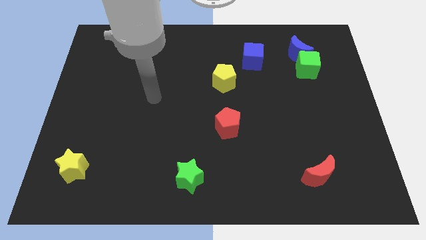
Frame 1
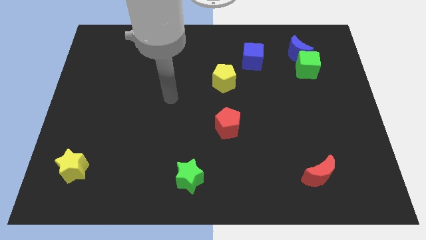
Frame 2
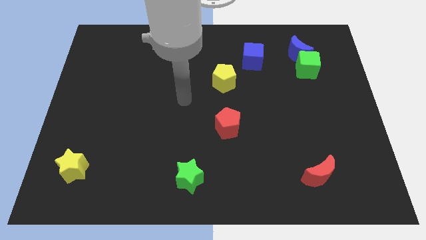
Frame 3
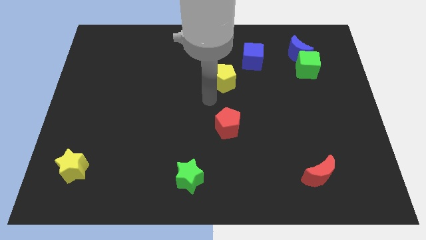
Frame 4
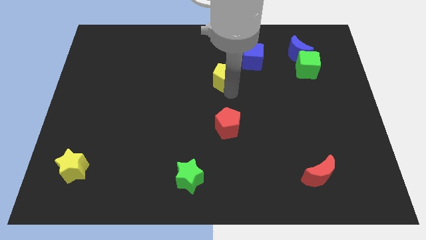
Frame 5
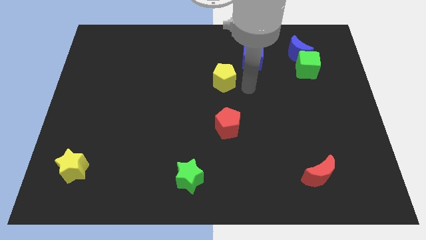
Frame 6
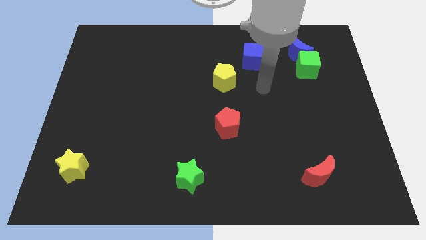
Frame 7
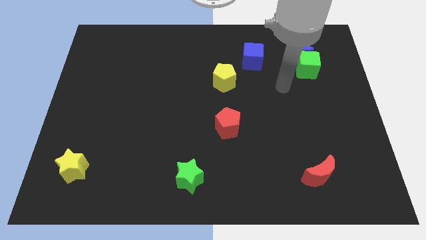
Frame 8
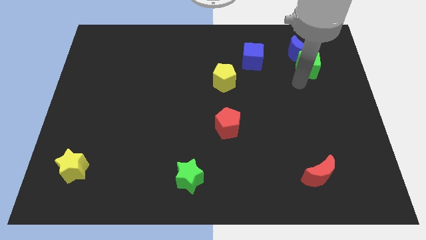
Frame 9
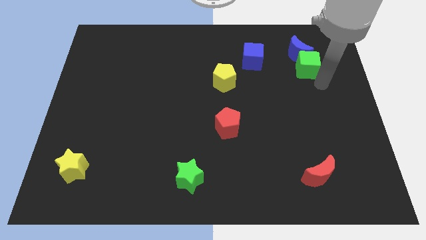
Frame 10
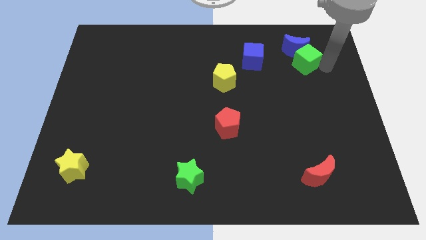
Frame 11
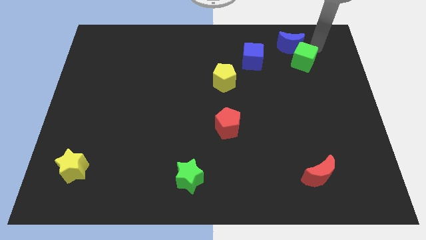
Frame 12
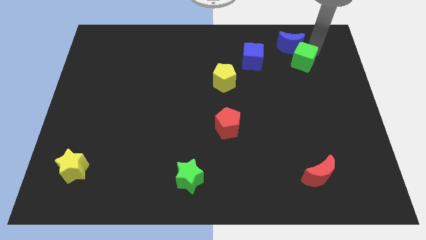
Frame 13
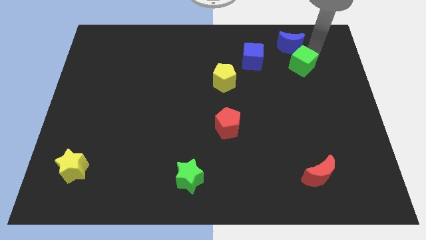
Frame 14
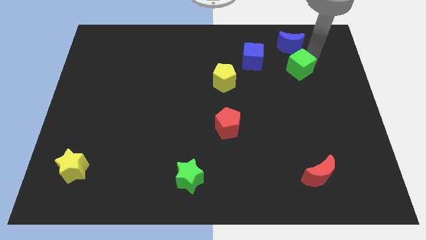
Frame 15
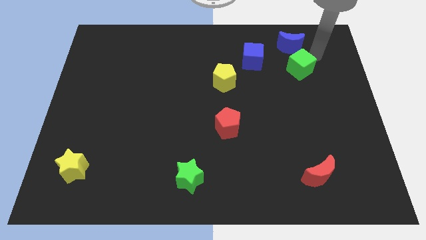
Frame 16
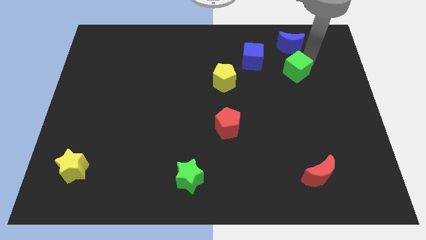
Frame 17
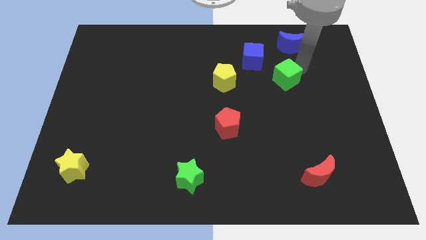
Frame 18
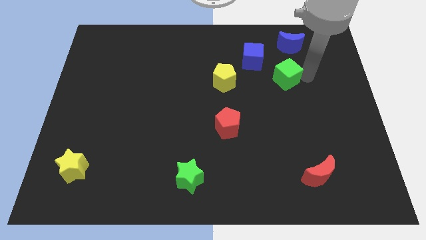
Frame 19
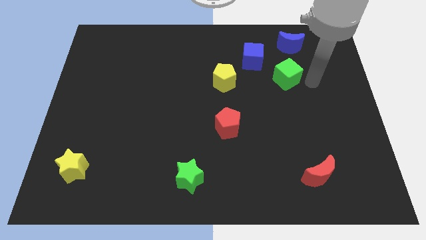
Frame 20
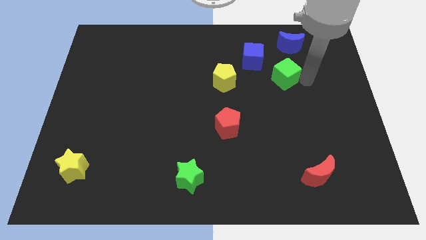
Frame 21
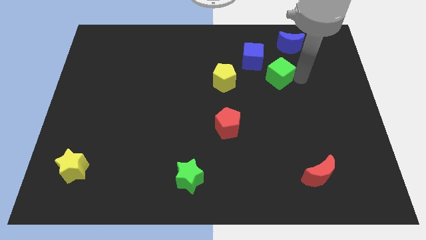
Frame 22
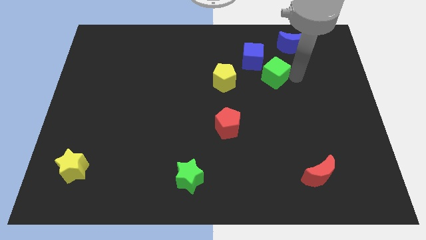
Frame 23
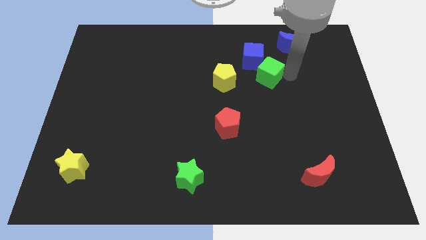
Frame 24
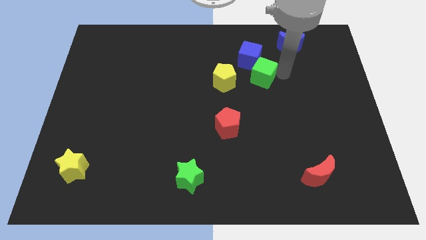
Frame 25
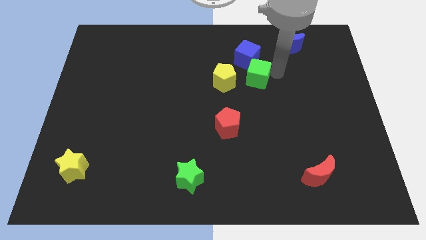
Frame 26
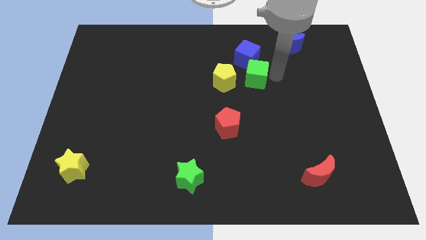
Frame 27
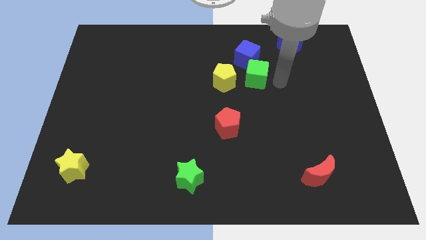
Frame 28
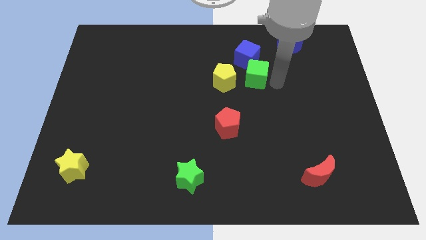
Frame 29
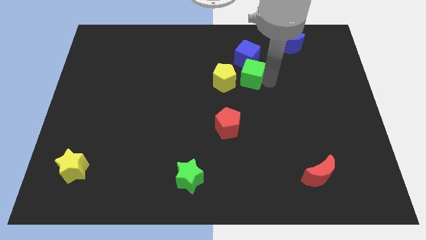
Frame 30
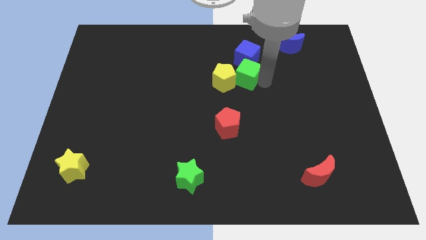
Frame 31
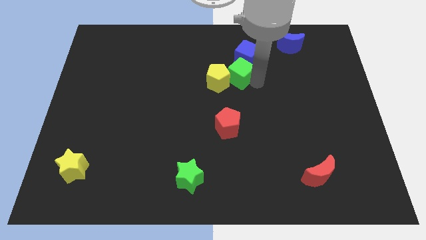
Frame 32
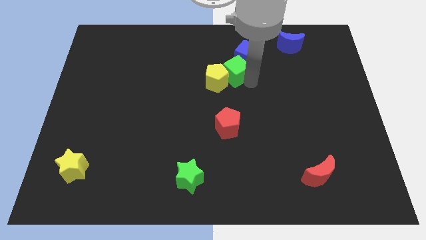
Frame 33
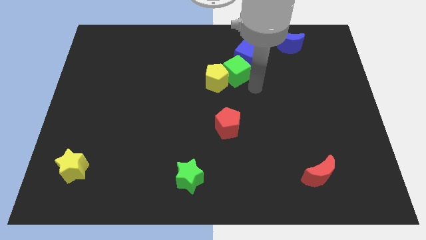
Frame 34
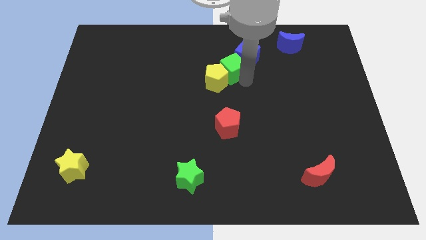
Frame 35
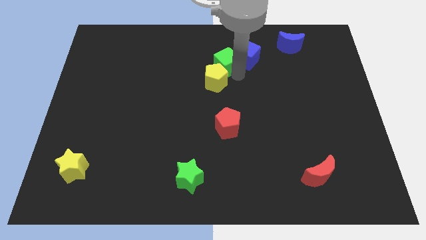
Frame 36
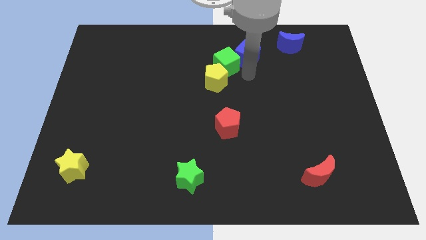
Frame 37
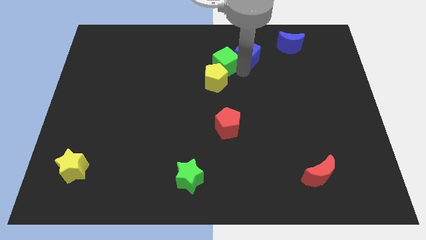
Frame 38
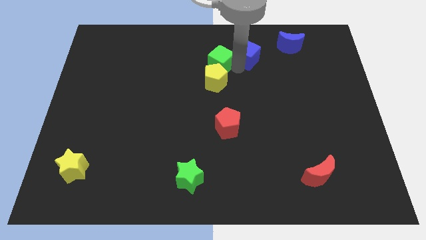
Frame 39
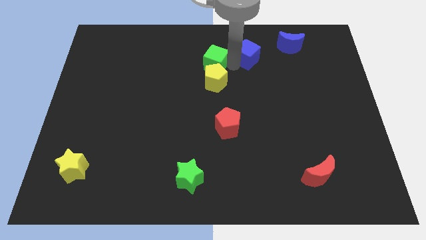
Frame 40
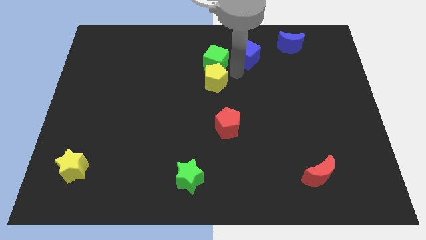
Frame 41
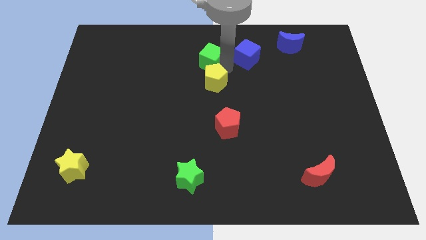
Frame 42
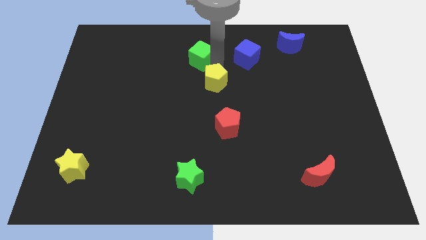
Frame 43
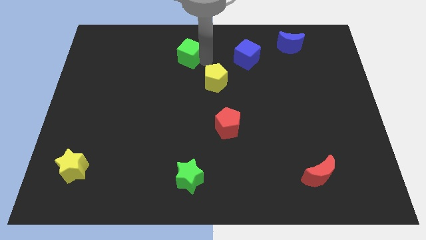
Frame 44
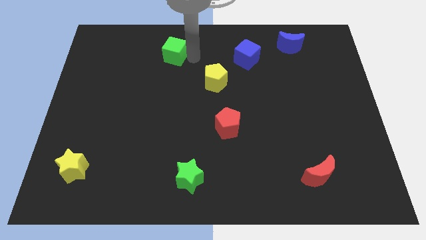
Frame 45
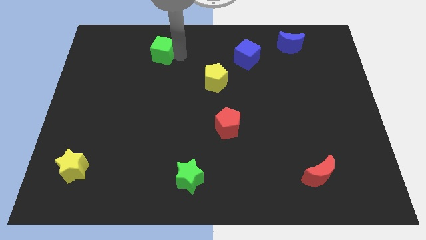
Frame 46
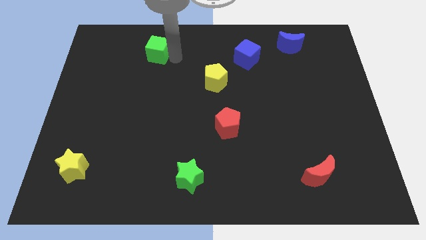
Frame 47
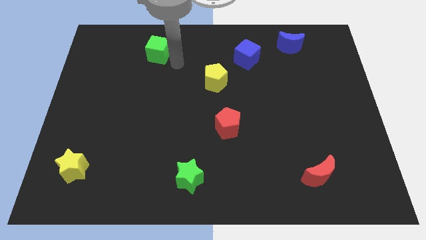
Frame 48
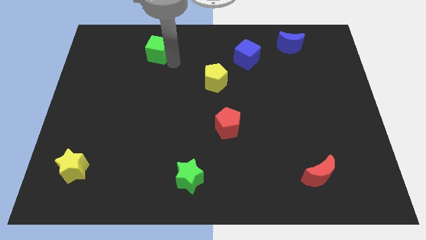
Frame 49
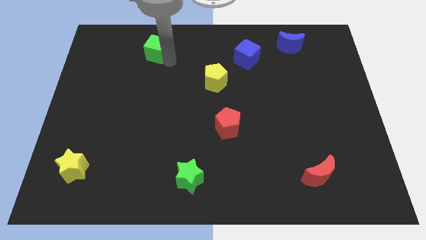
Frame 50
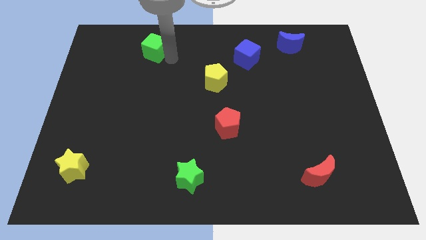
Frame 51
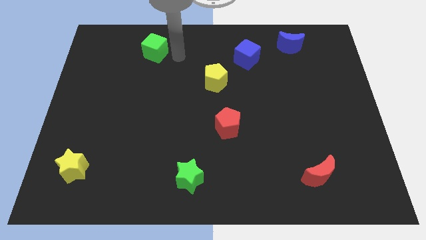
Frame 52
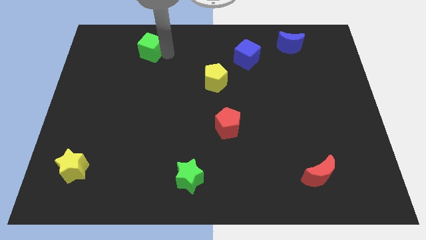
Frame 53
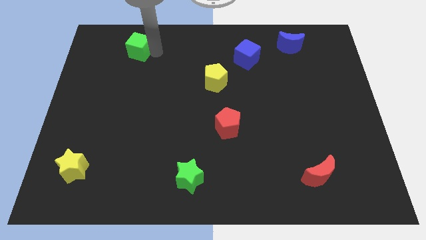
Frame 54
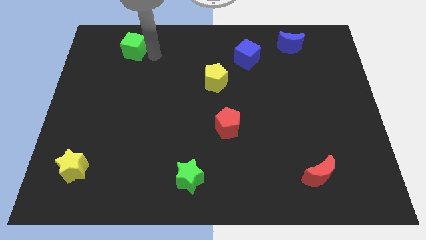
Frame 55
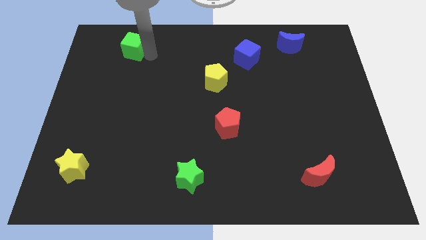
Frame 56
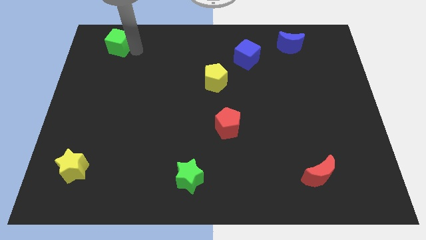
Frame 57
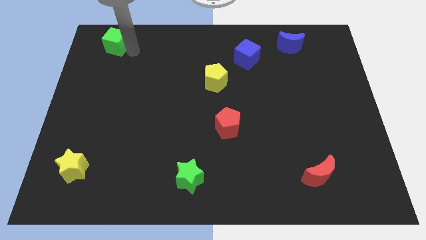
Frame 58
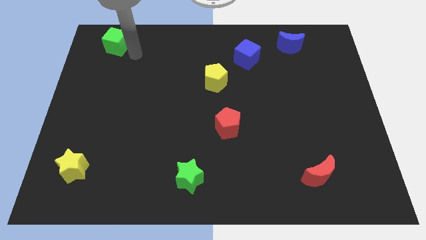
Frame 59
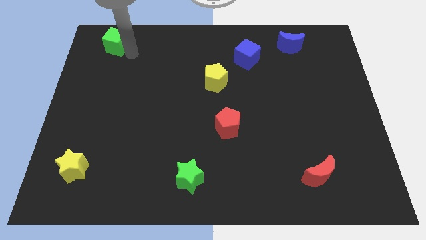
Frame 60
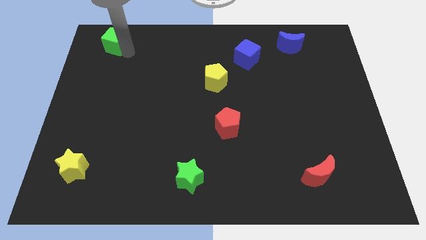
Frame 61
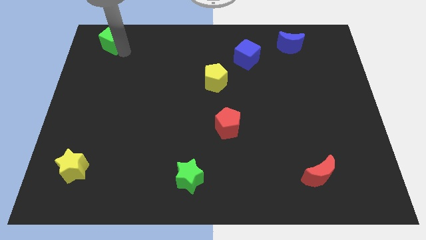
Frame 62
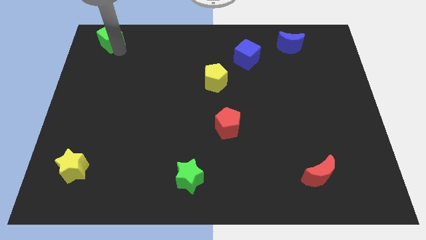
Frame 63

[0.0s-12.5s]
move the green cube to the top left corner

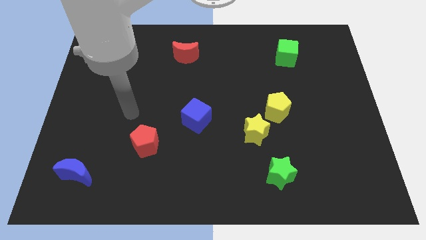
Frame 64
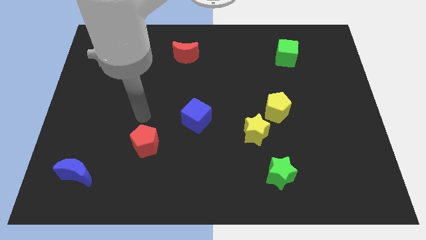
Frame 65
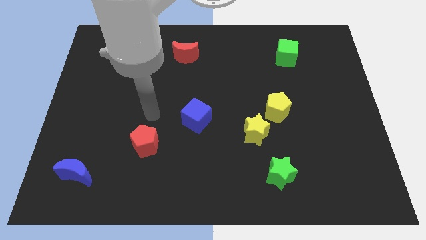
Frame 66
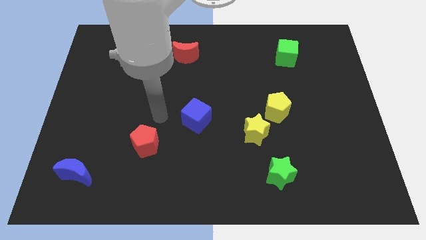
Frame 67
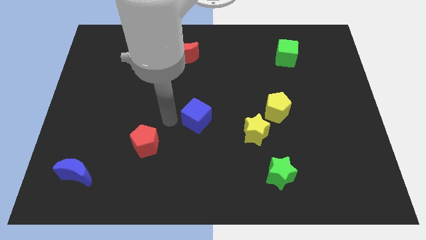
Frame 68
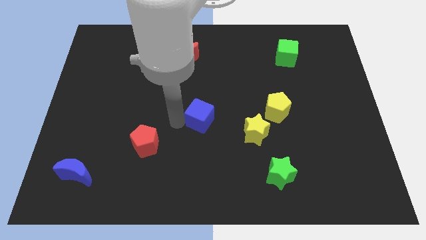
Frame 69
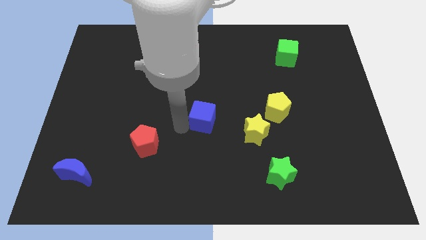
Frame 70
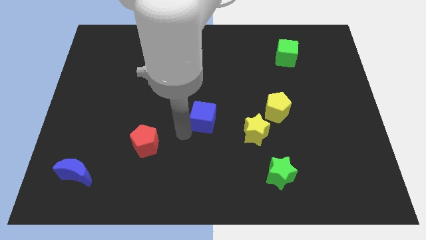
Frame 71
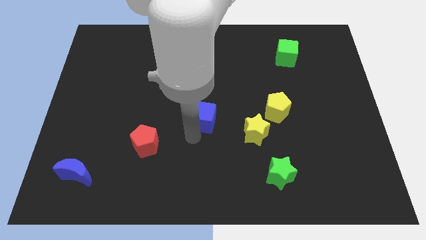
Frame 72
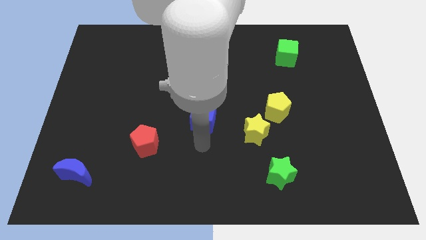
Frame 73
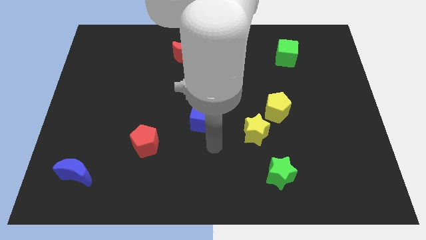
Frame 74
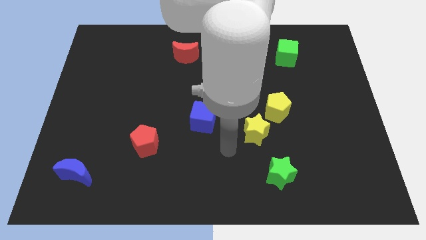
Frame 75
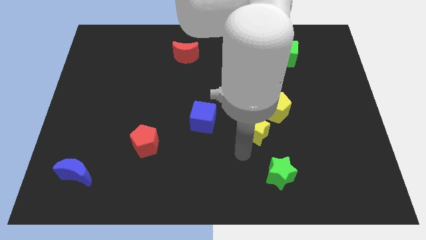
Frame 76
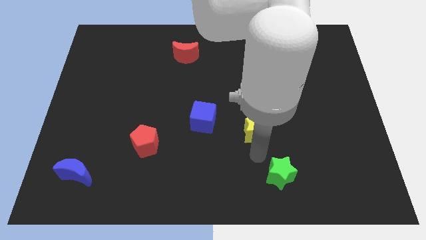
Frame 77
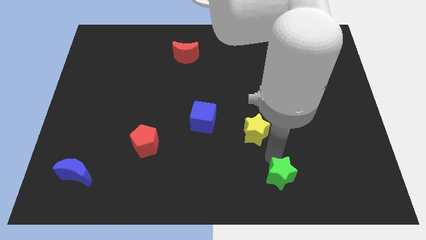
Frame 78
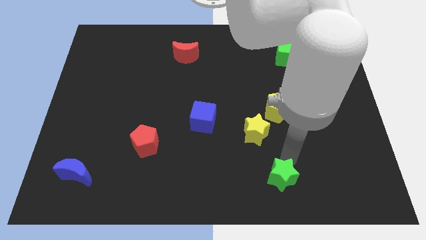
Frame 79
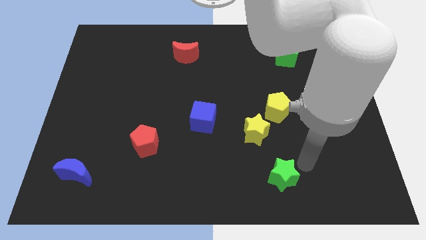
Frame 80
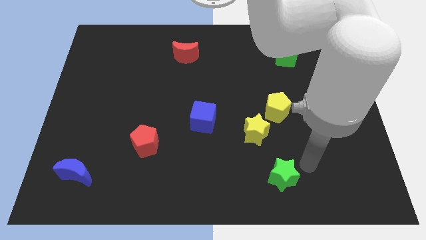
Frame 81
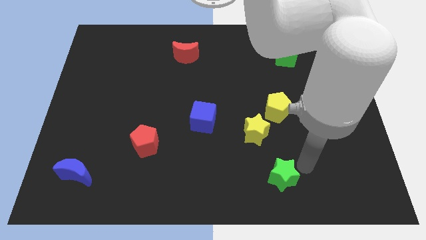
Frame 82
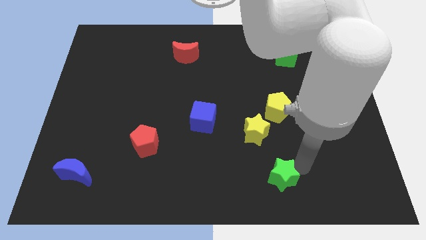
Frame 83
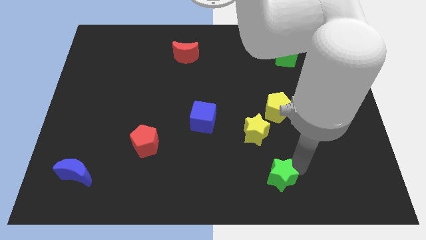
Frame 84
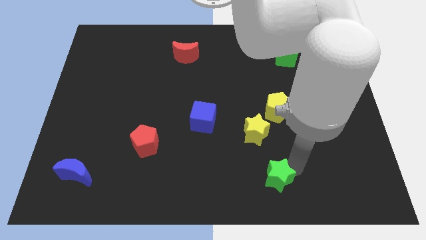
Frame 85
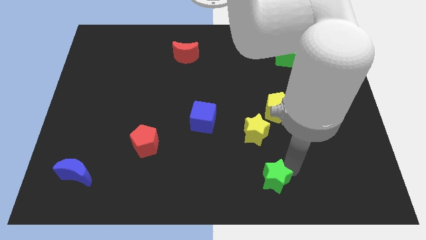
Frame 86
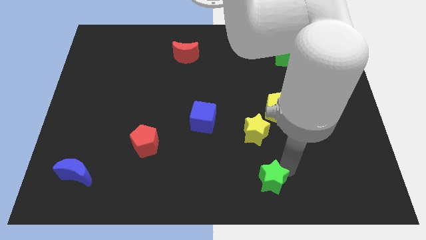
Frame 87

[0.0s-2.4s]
slide the green star to the bottom
